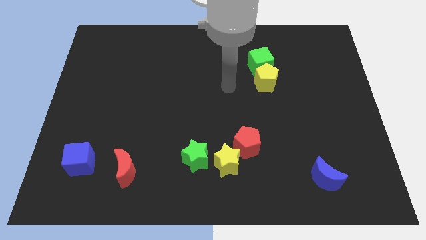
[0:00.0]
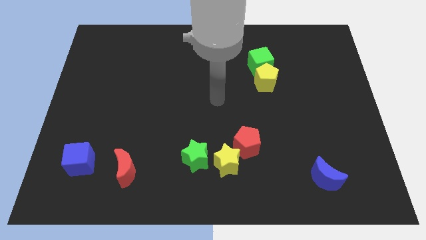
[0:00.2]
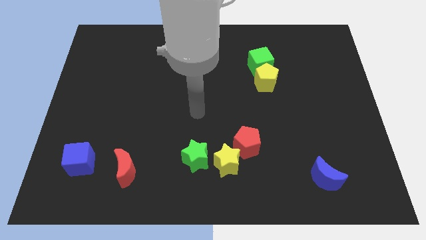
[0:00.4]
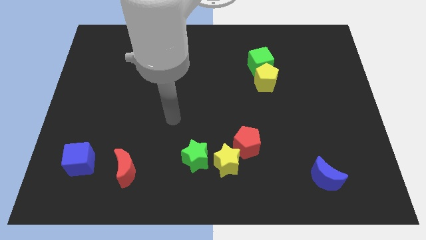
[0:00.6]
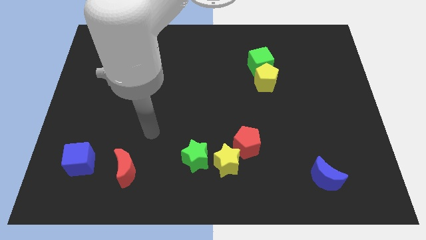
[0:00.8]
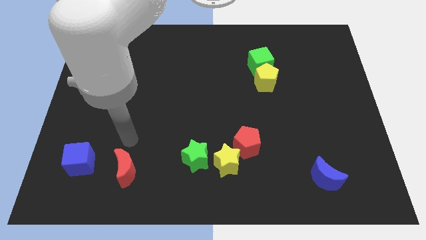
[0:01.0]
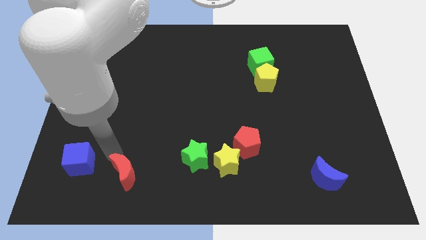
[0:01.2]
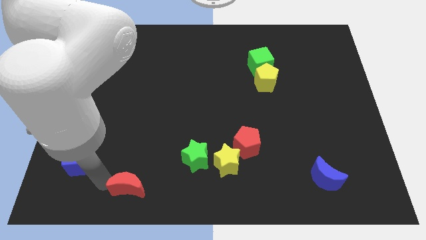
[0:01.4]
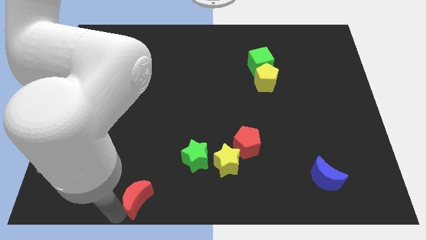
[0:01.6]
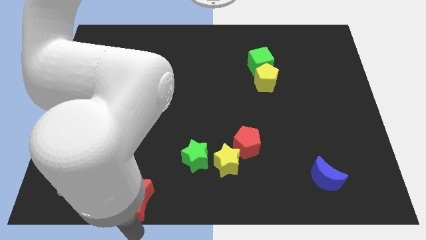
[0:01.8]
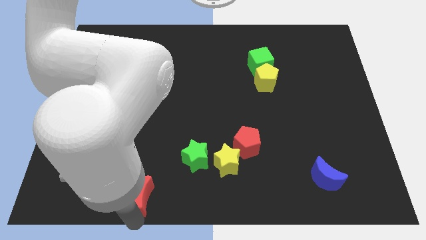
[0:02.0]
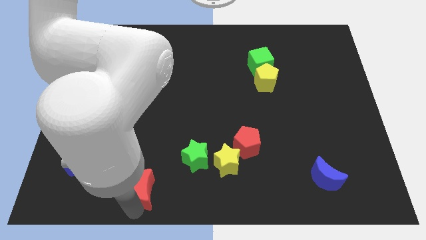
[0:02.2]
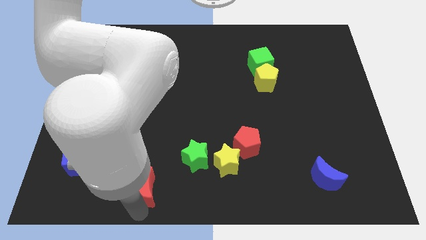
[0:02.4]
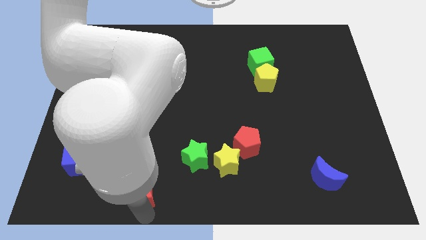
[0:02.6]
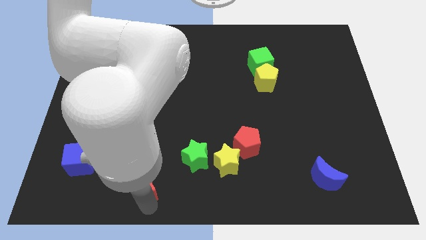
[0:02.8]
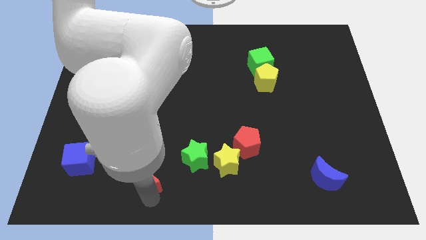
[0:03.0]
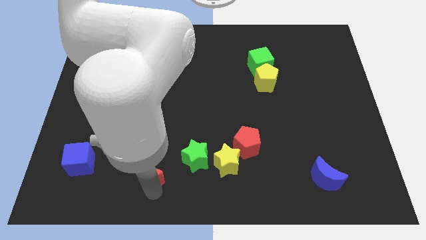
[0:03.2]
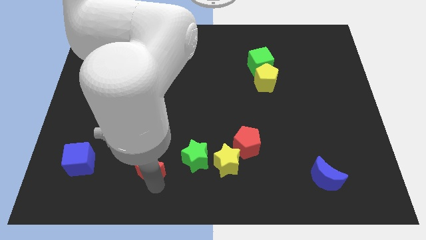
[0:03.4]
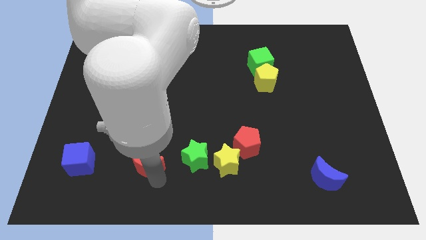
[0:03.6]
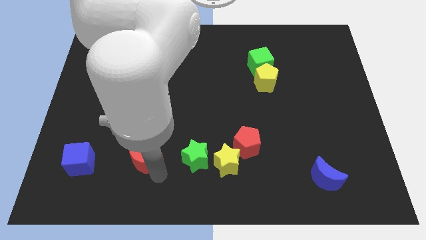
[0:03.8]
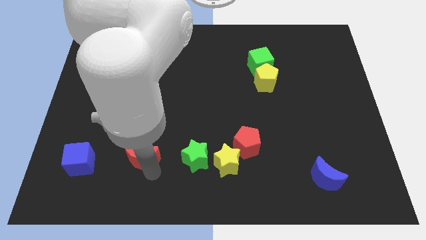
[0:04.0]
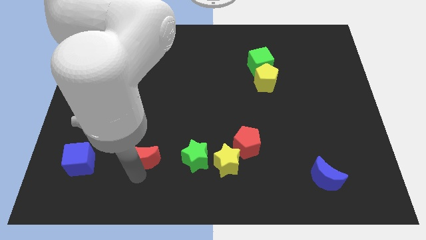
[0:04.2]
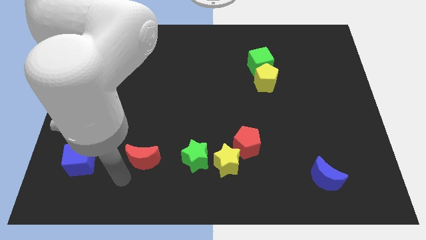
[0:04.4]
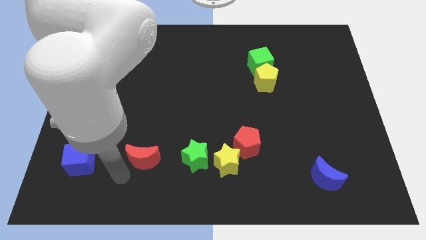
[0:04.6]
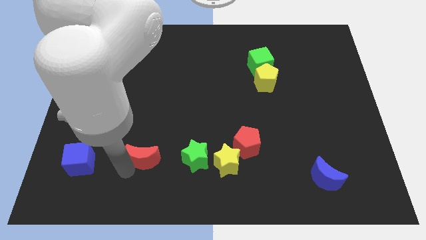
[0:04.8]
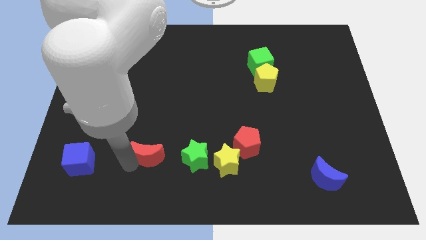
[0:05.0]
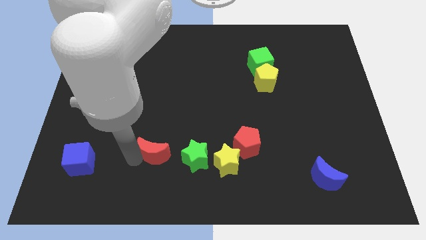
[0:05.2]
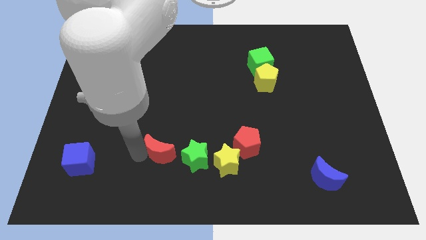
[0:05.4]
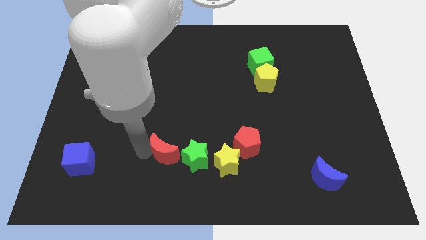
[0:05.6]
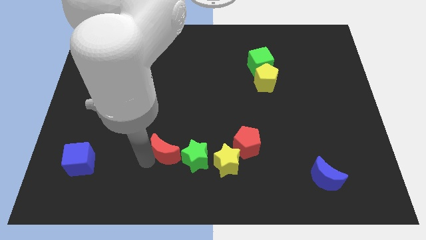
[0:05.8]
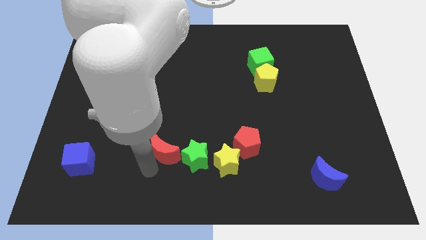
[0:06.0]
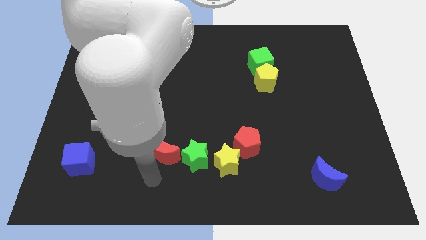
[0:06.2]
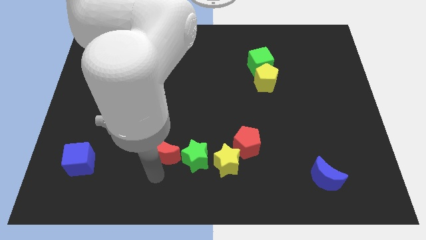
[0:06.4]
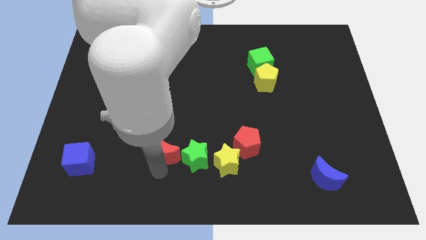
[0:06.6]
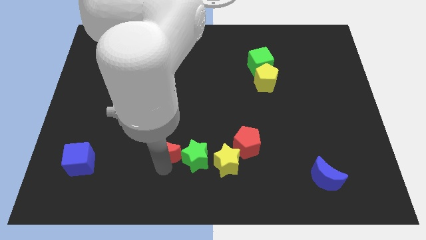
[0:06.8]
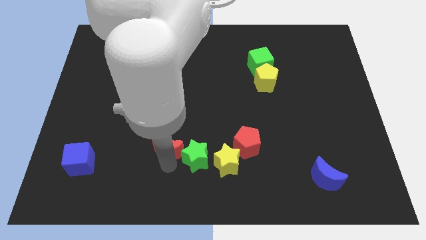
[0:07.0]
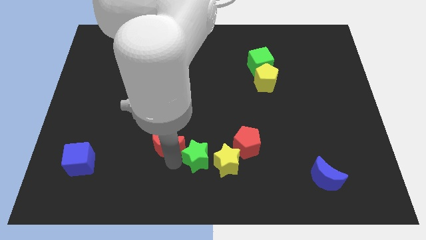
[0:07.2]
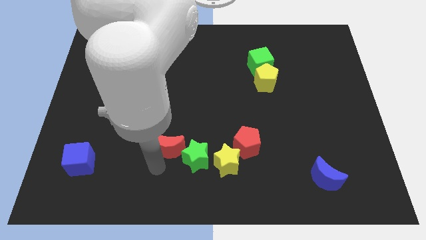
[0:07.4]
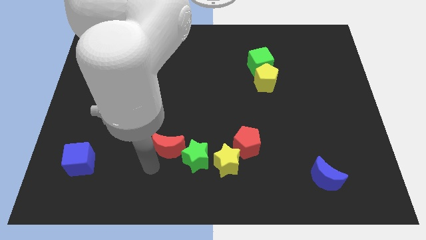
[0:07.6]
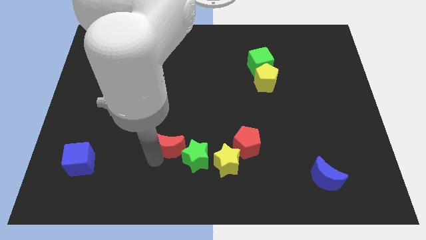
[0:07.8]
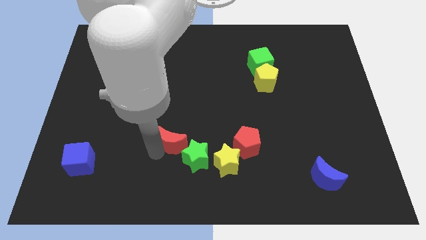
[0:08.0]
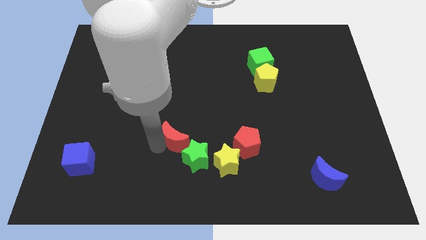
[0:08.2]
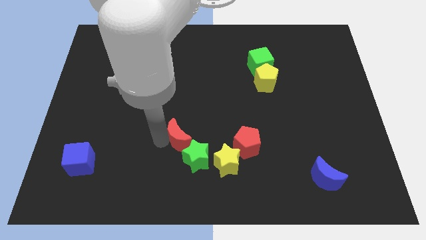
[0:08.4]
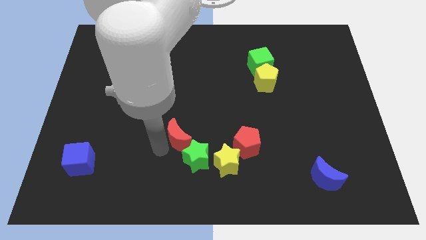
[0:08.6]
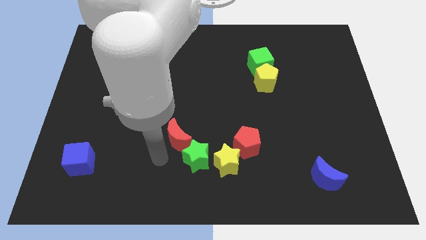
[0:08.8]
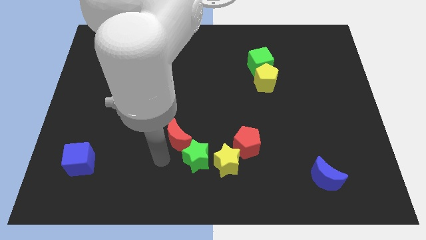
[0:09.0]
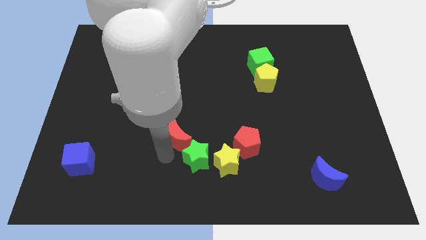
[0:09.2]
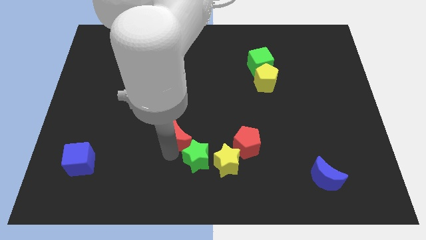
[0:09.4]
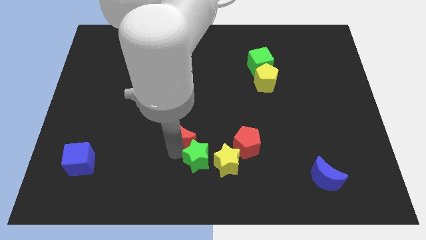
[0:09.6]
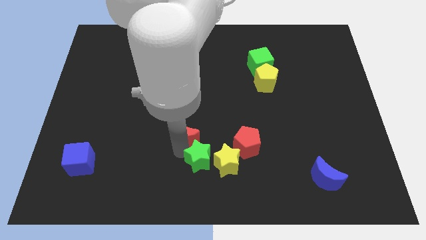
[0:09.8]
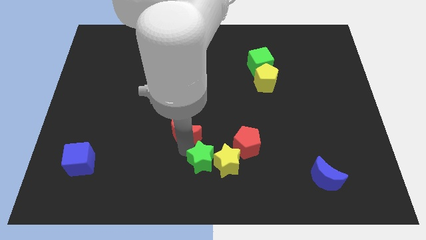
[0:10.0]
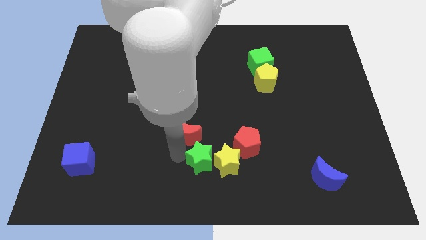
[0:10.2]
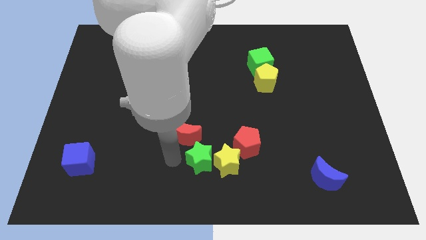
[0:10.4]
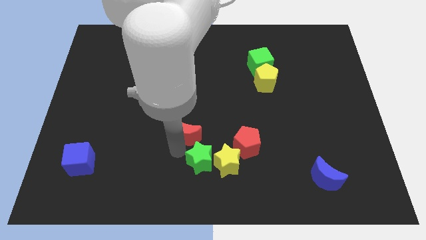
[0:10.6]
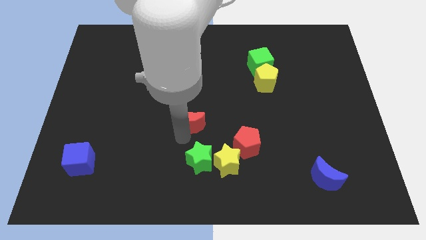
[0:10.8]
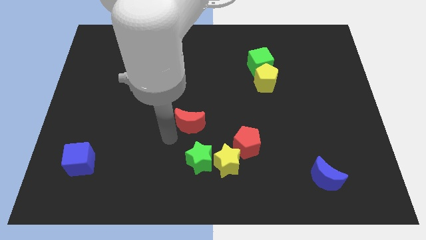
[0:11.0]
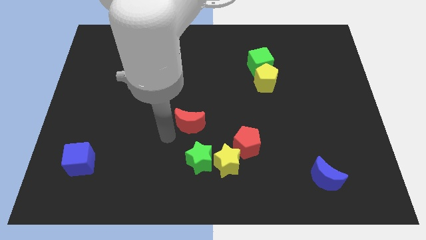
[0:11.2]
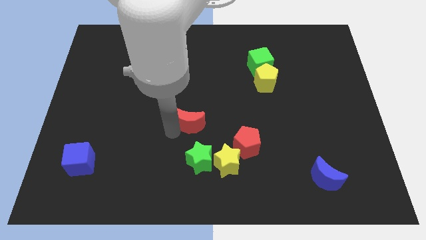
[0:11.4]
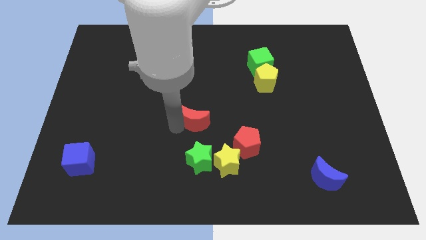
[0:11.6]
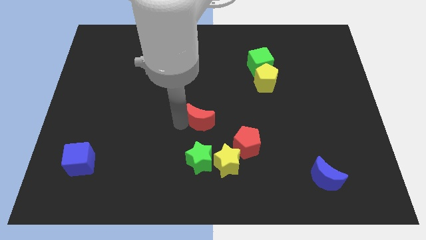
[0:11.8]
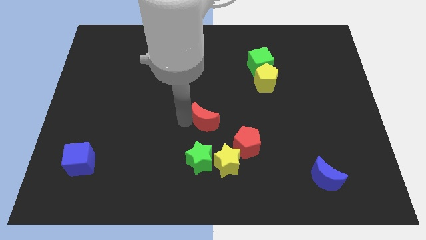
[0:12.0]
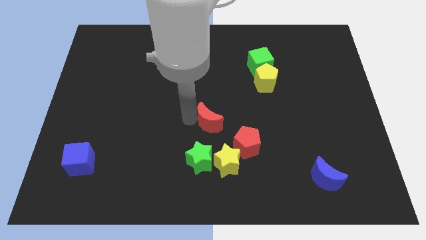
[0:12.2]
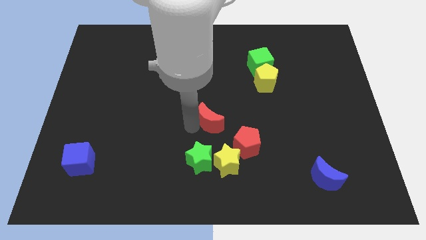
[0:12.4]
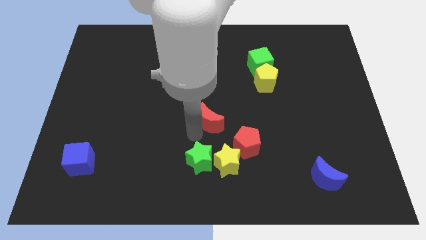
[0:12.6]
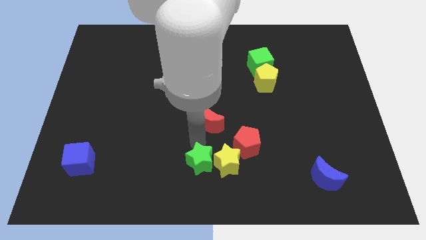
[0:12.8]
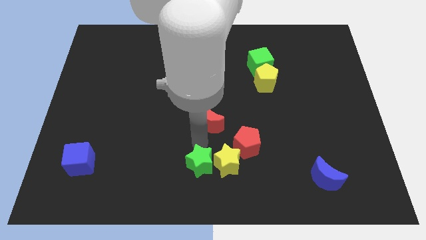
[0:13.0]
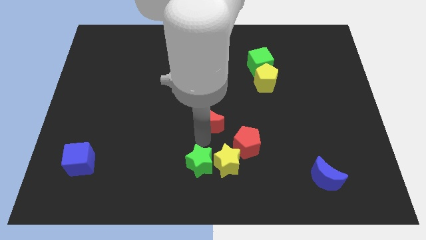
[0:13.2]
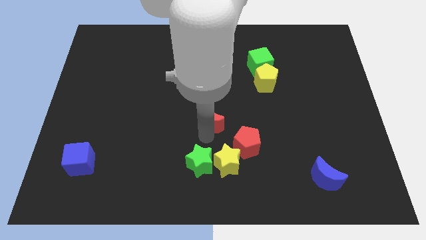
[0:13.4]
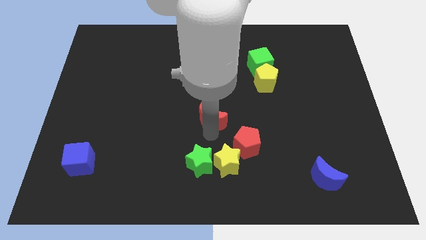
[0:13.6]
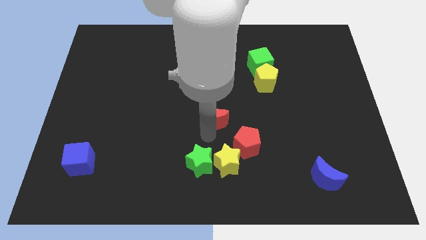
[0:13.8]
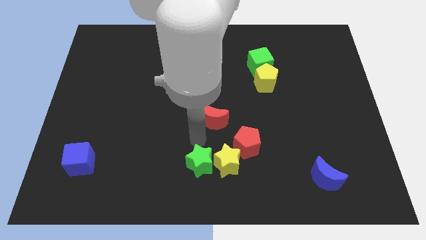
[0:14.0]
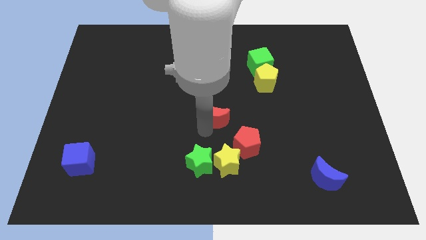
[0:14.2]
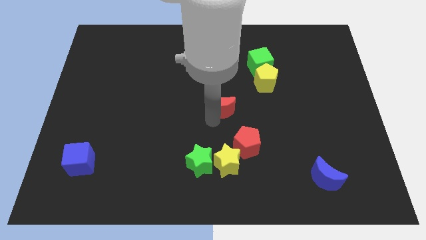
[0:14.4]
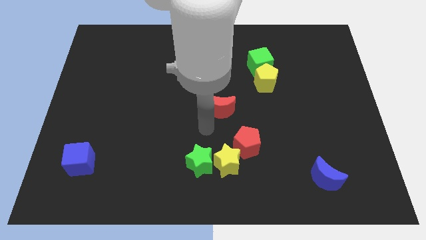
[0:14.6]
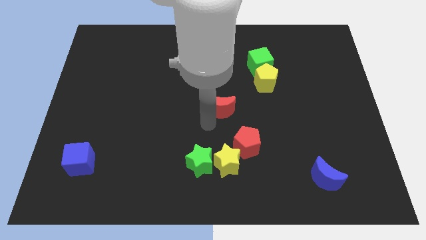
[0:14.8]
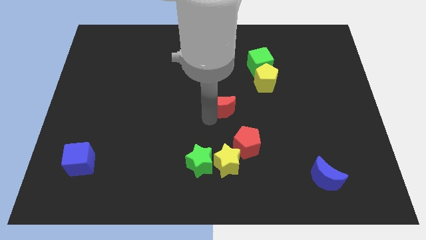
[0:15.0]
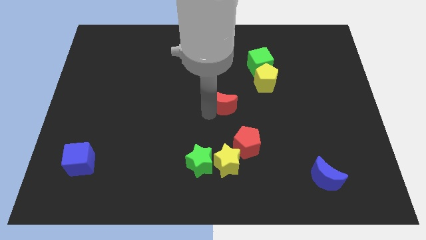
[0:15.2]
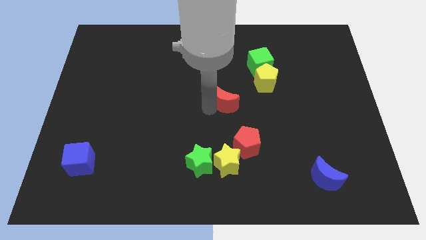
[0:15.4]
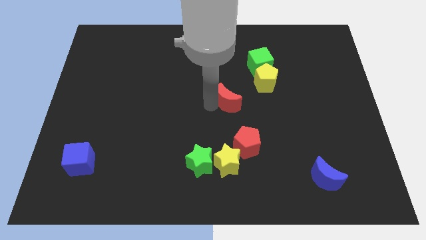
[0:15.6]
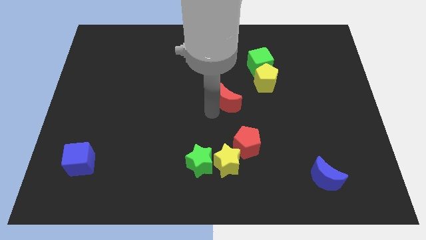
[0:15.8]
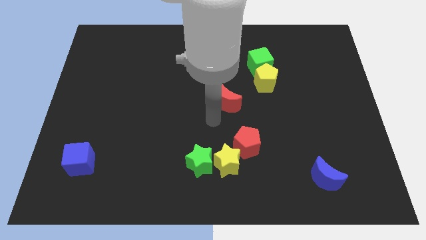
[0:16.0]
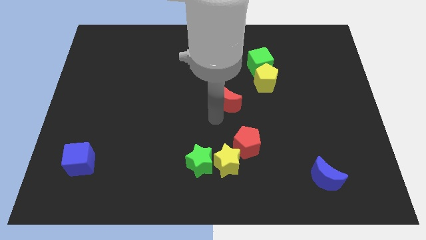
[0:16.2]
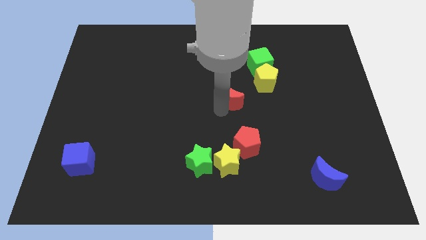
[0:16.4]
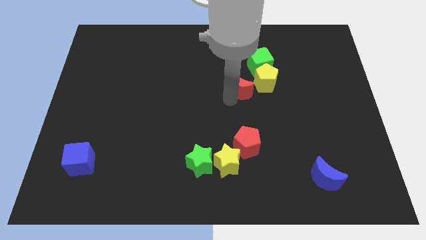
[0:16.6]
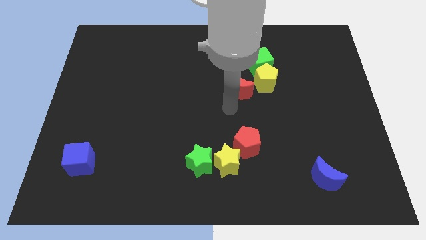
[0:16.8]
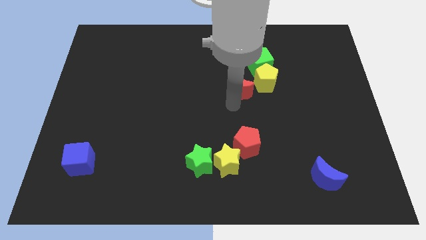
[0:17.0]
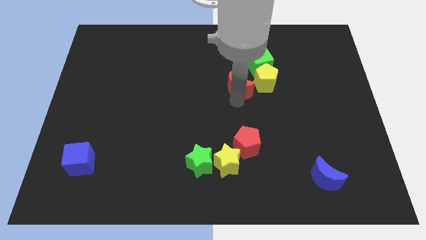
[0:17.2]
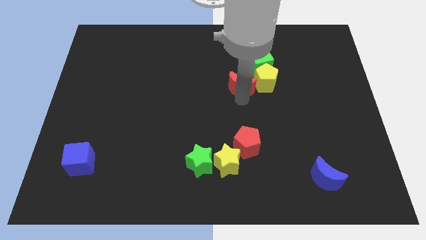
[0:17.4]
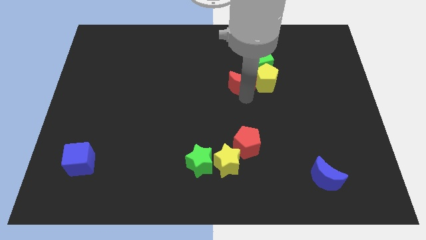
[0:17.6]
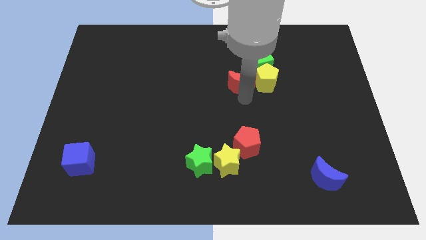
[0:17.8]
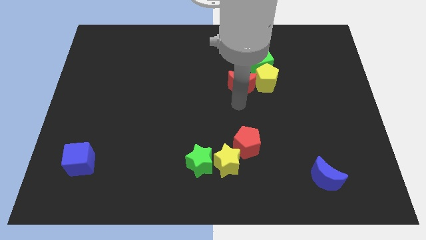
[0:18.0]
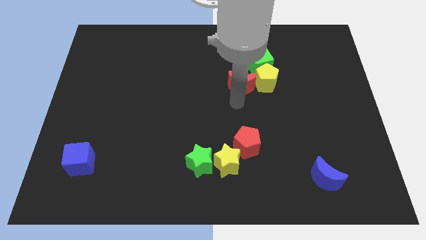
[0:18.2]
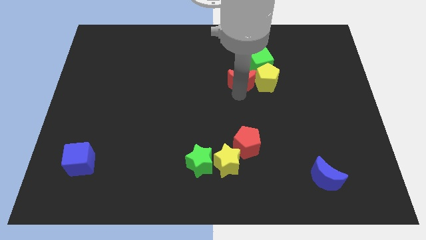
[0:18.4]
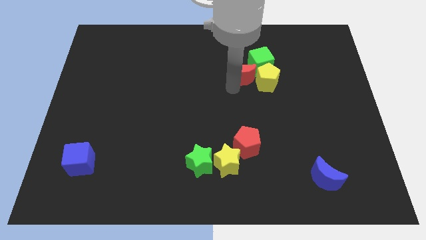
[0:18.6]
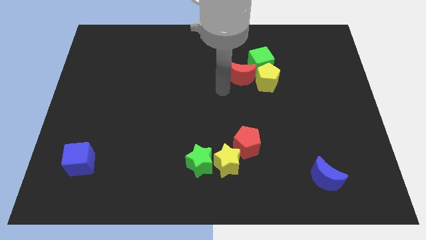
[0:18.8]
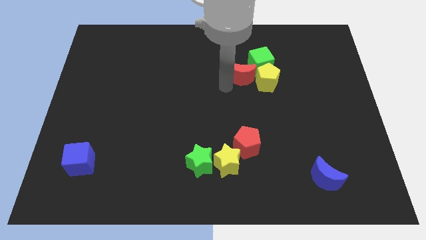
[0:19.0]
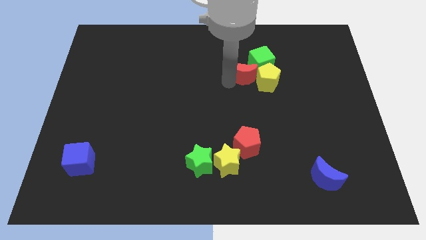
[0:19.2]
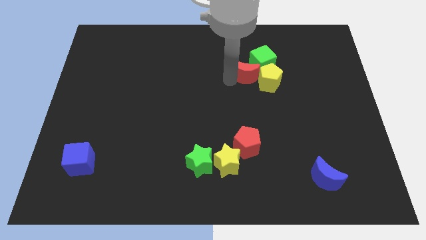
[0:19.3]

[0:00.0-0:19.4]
slide the red moon close to the green cube
